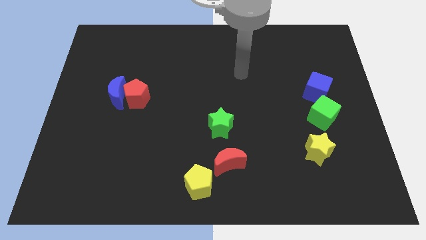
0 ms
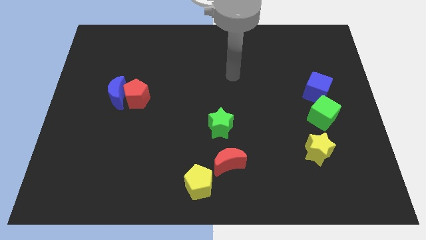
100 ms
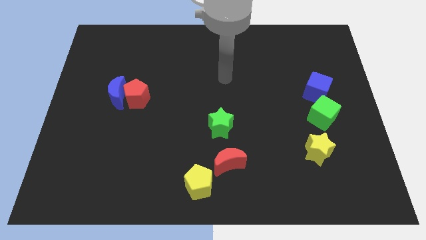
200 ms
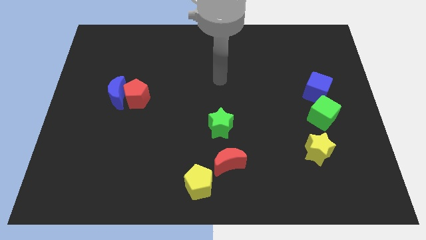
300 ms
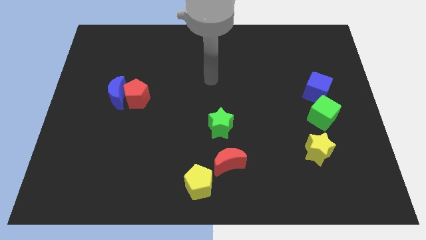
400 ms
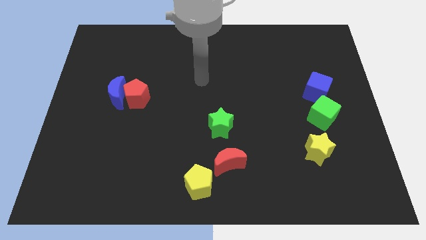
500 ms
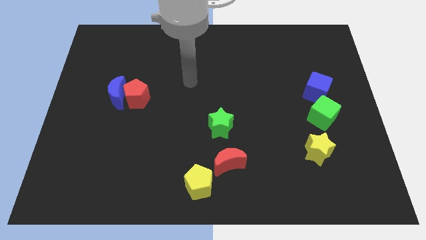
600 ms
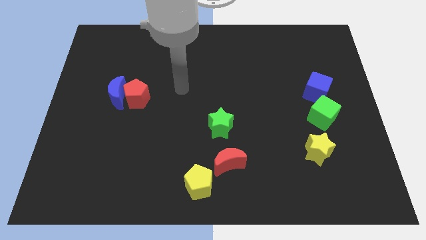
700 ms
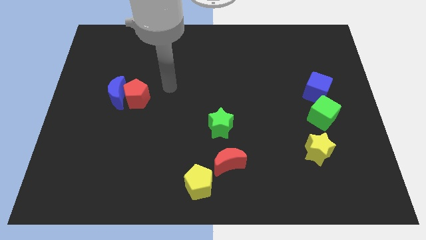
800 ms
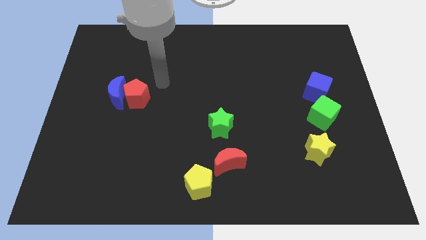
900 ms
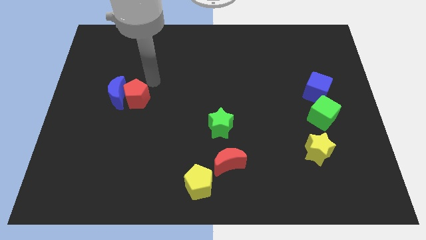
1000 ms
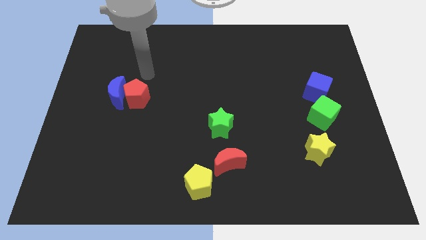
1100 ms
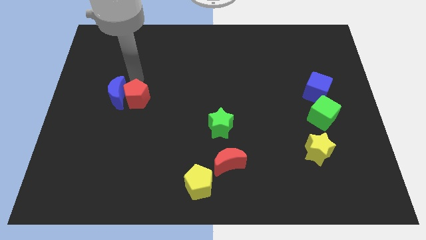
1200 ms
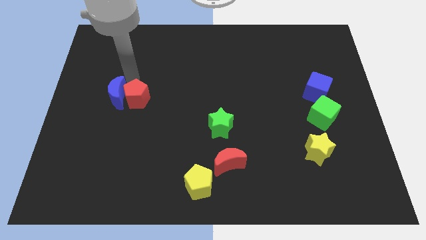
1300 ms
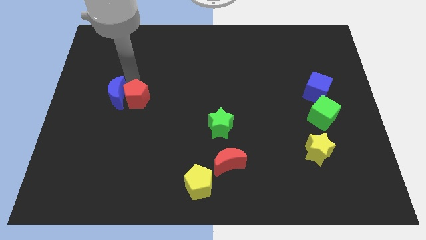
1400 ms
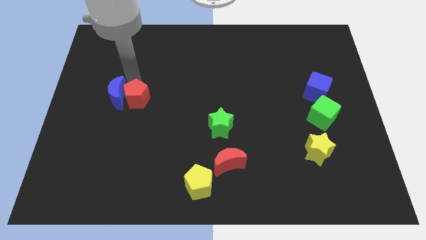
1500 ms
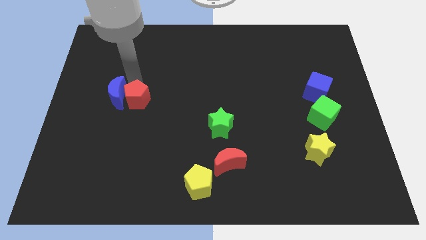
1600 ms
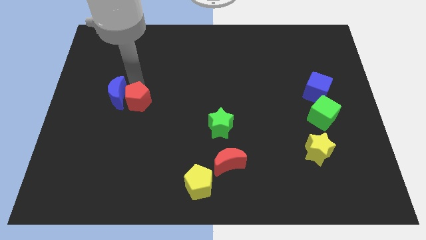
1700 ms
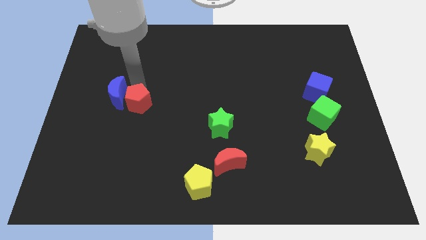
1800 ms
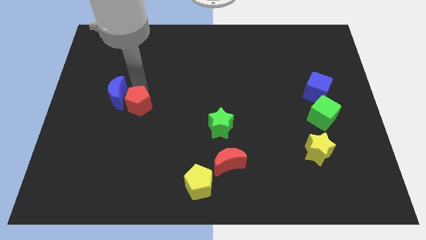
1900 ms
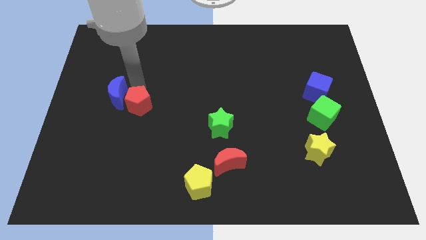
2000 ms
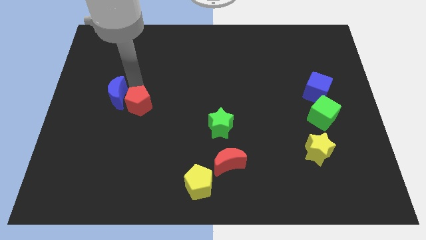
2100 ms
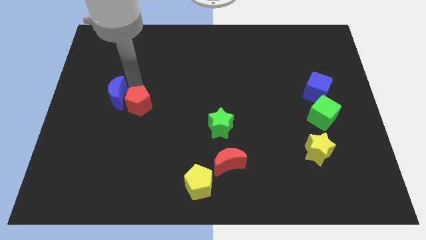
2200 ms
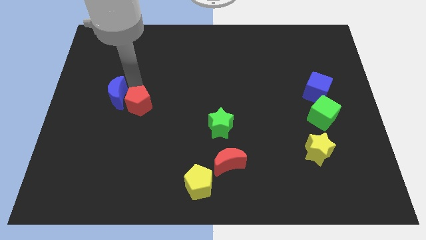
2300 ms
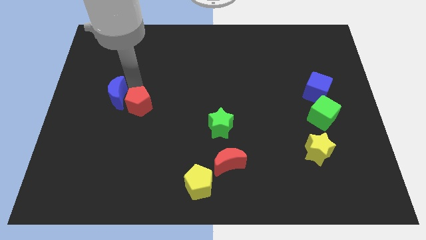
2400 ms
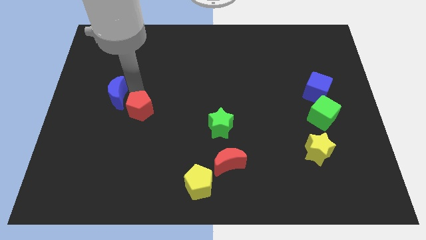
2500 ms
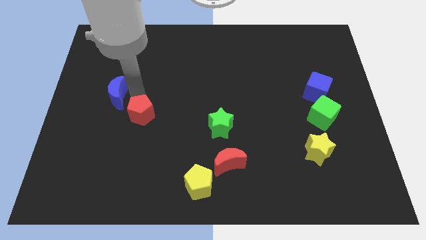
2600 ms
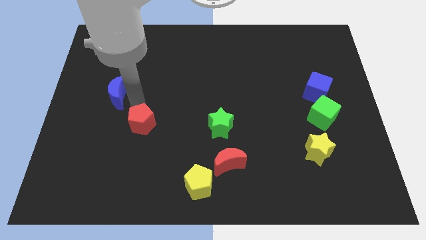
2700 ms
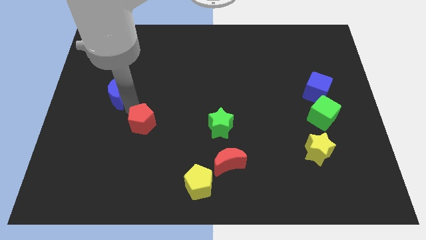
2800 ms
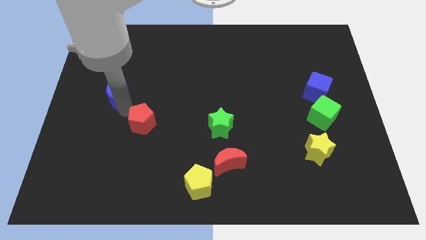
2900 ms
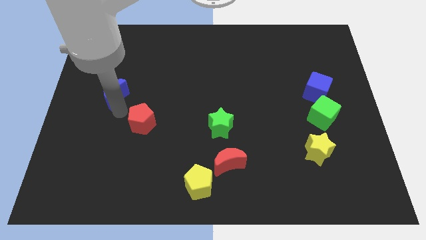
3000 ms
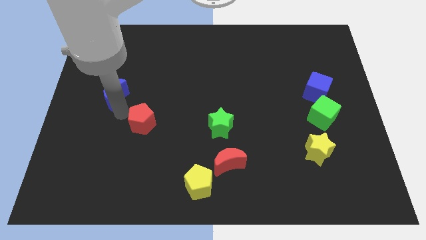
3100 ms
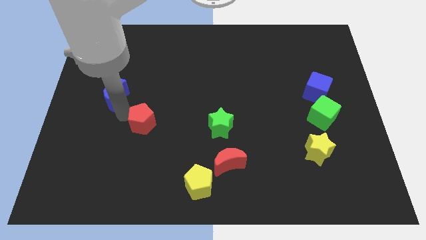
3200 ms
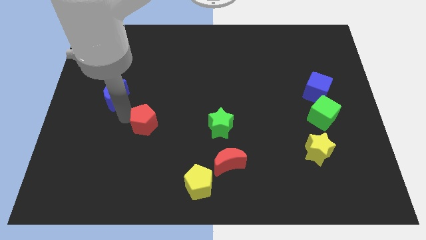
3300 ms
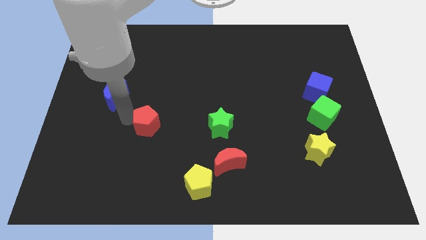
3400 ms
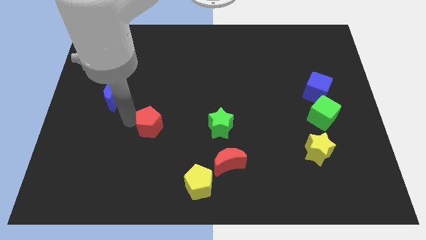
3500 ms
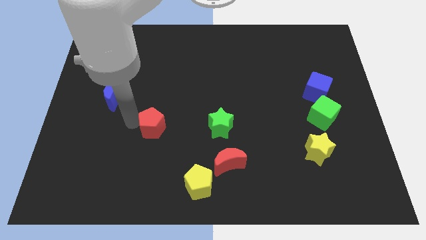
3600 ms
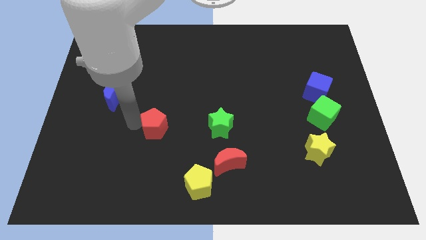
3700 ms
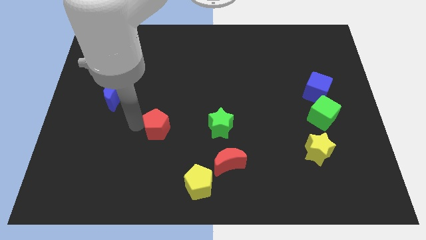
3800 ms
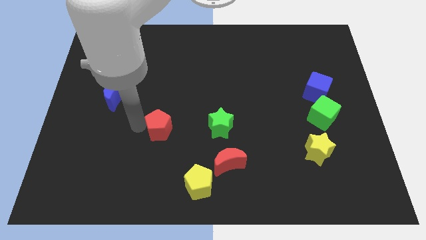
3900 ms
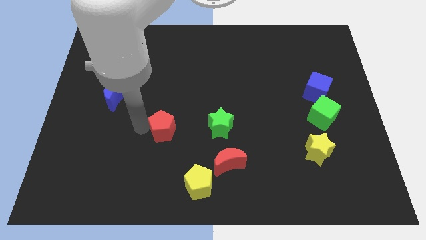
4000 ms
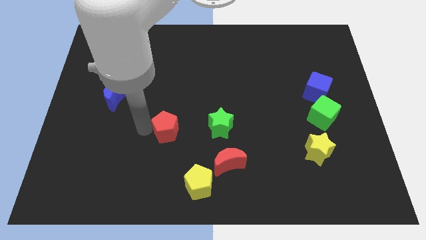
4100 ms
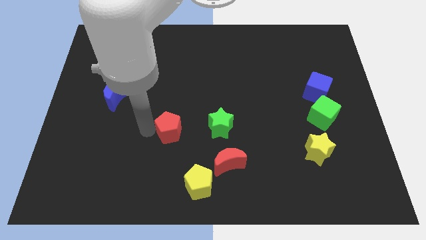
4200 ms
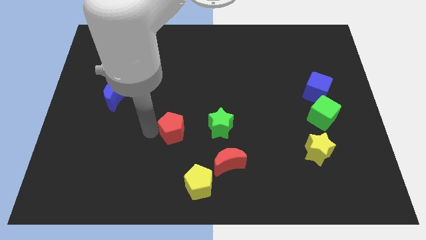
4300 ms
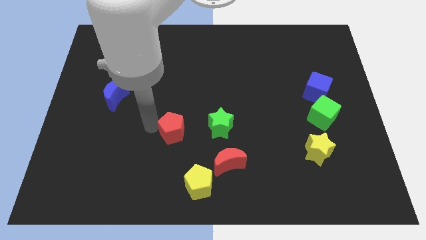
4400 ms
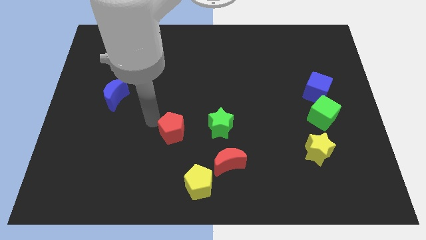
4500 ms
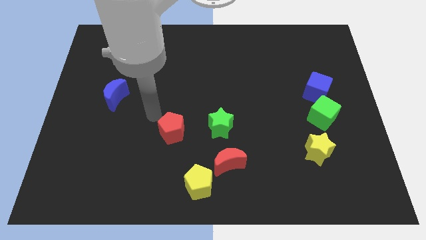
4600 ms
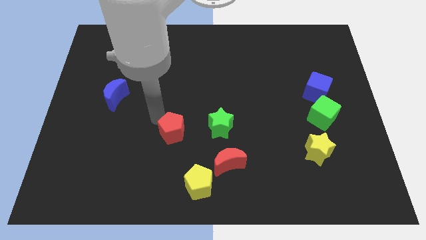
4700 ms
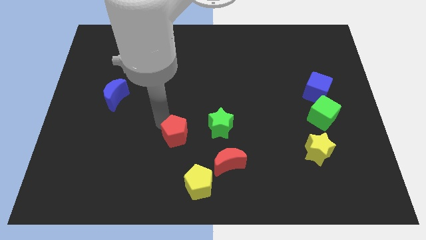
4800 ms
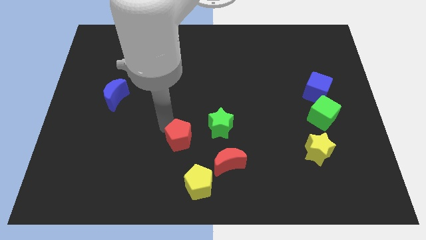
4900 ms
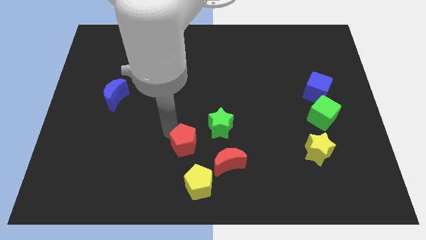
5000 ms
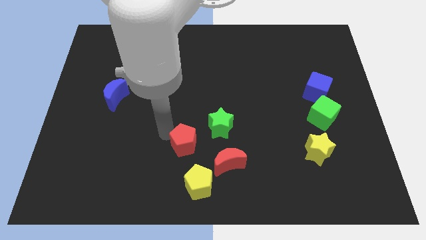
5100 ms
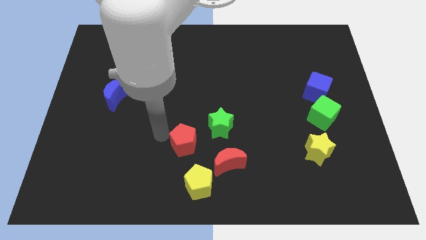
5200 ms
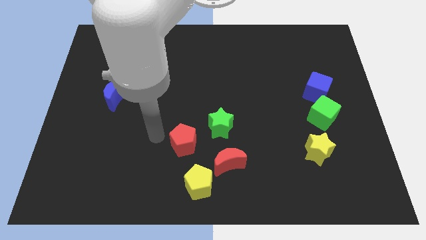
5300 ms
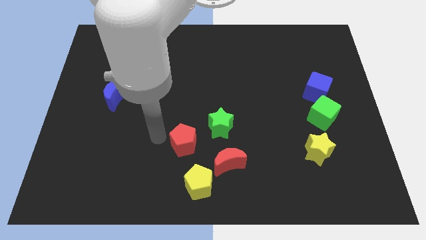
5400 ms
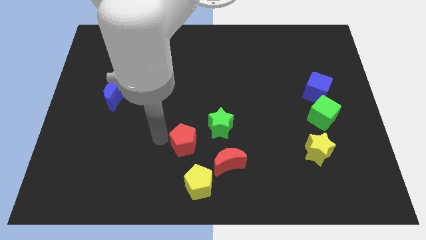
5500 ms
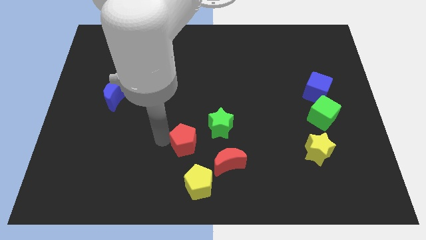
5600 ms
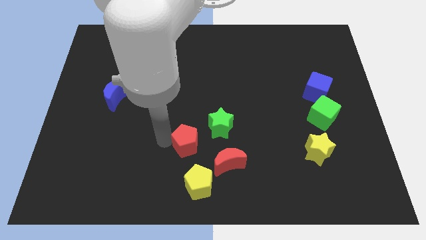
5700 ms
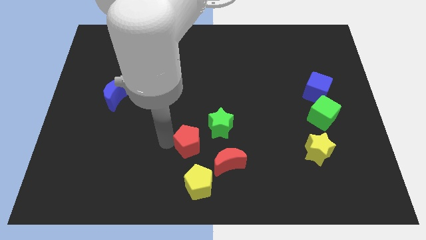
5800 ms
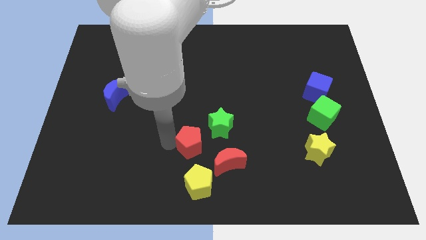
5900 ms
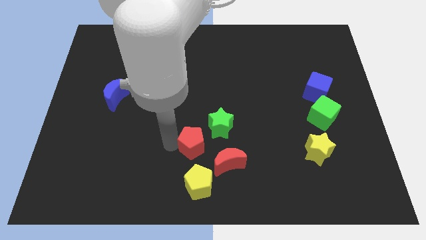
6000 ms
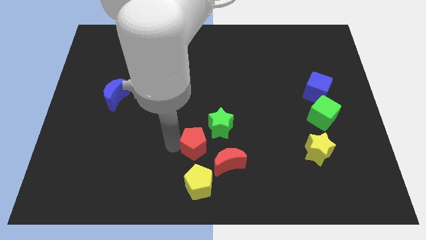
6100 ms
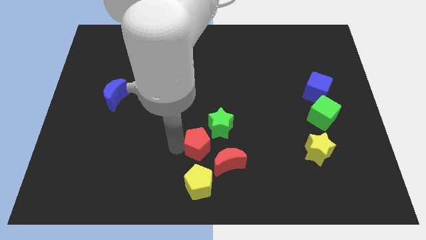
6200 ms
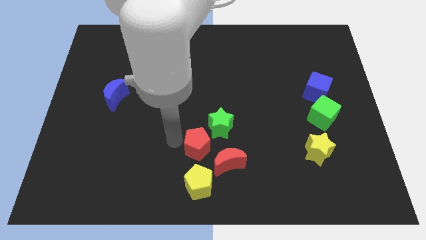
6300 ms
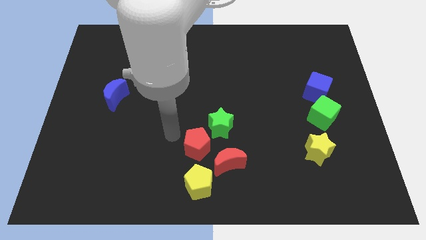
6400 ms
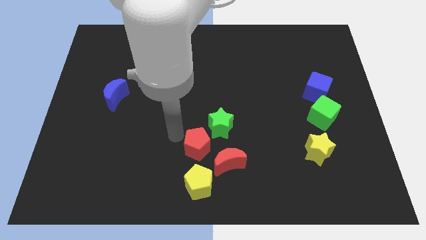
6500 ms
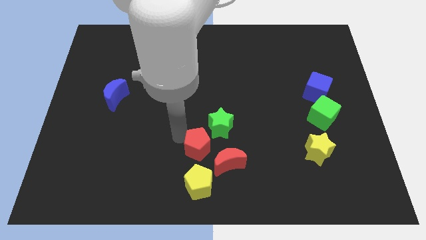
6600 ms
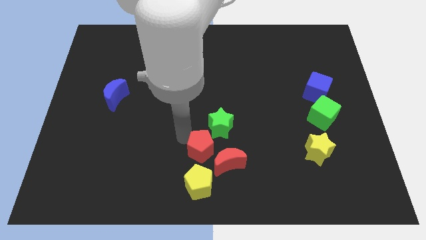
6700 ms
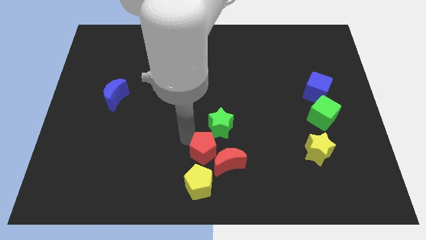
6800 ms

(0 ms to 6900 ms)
put the red pentagon next to the red moon

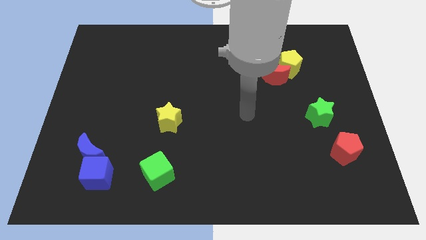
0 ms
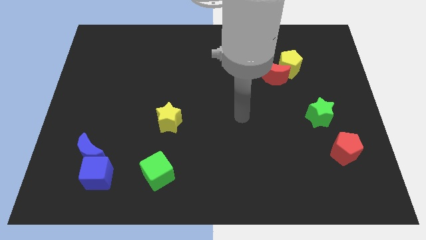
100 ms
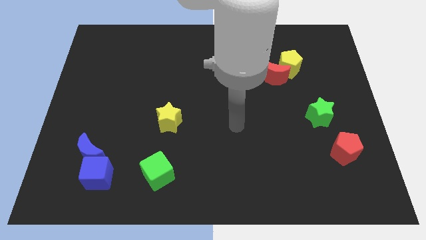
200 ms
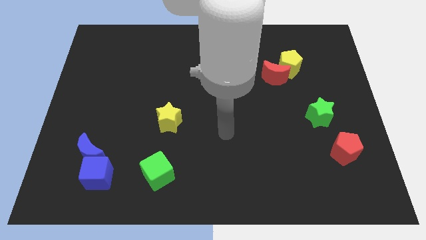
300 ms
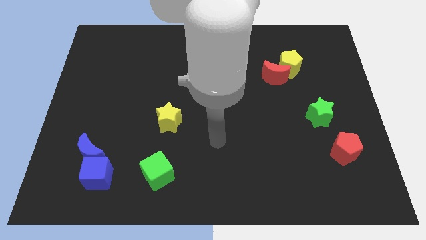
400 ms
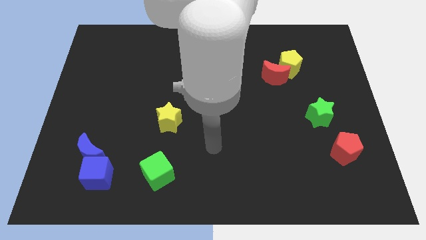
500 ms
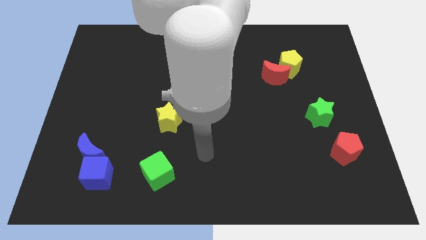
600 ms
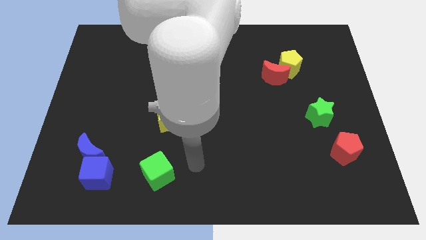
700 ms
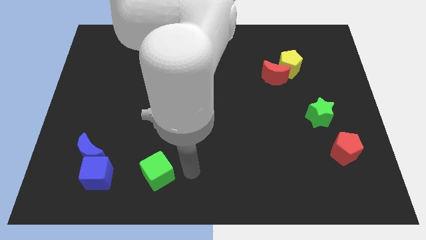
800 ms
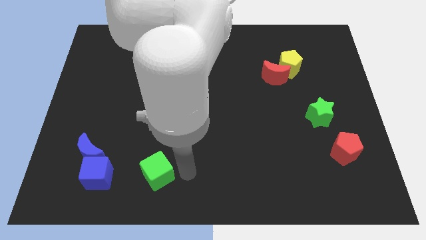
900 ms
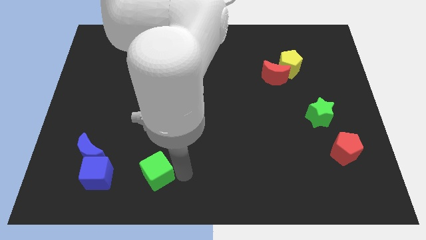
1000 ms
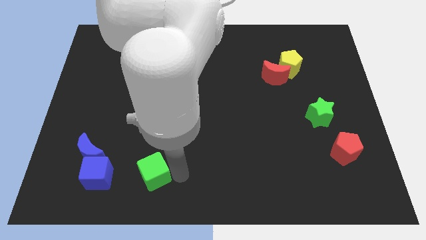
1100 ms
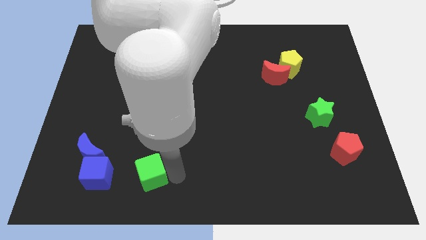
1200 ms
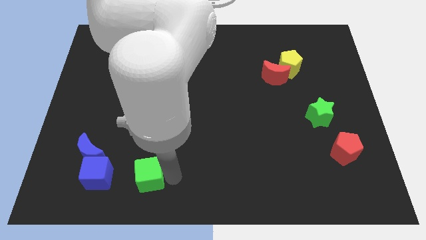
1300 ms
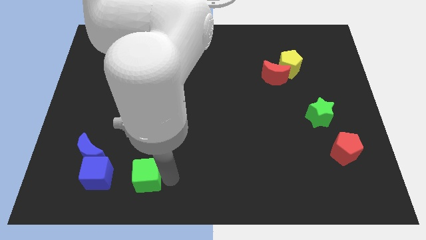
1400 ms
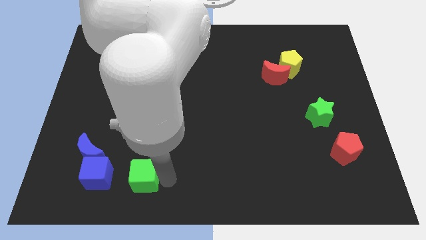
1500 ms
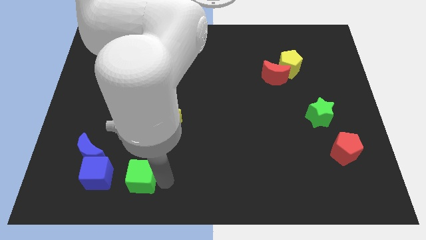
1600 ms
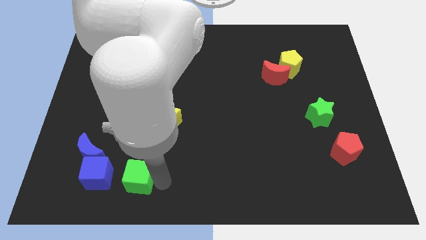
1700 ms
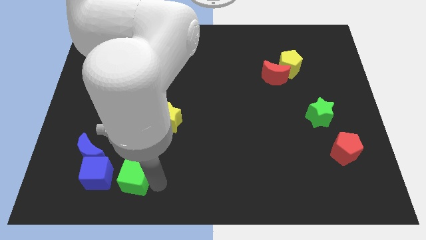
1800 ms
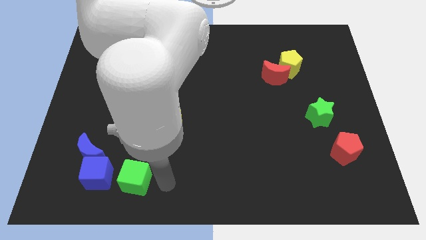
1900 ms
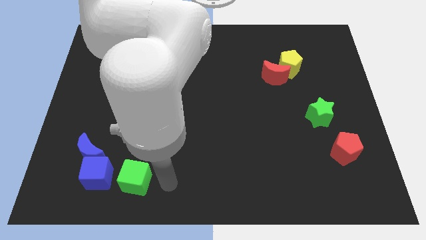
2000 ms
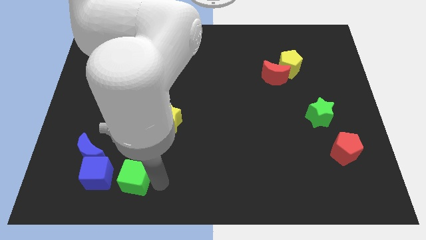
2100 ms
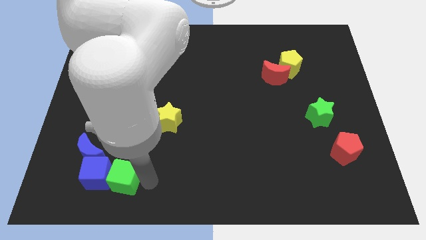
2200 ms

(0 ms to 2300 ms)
move the green cube towards the blue cube
